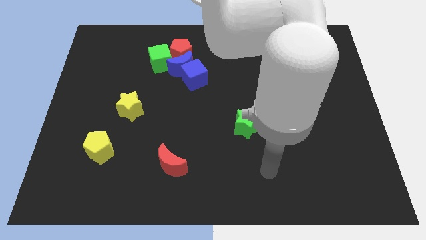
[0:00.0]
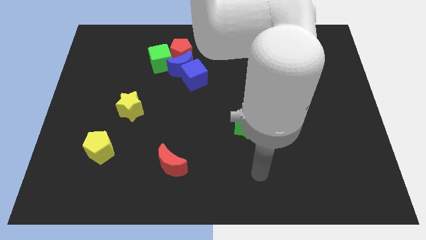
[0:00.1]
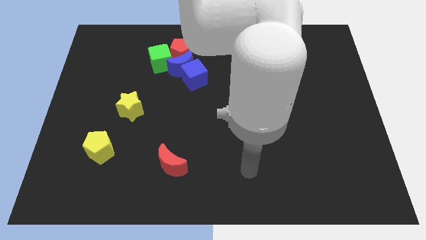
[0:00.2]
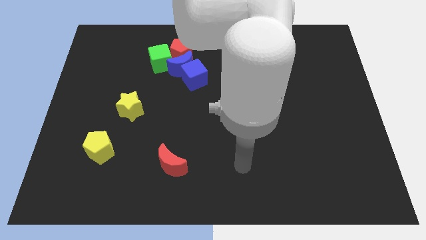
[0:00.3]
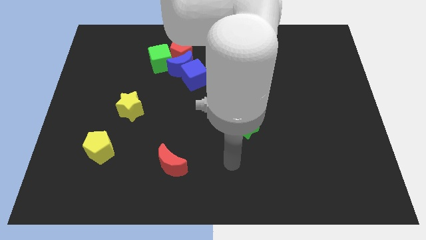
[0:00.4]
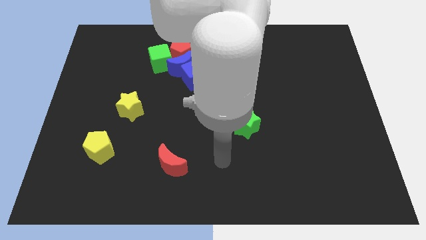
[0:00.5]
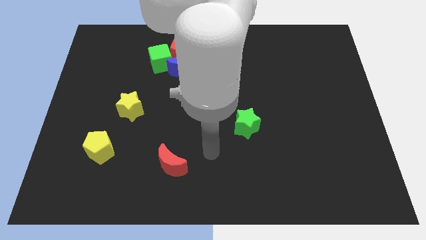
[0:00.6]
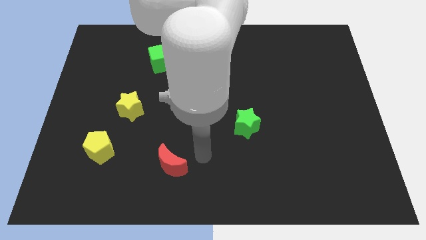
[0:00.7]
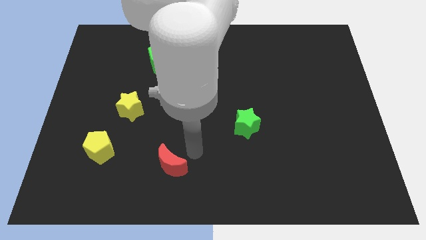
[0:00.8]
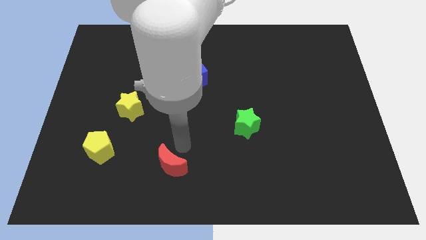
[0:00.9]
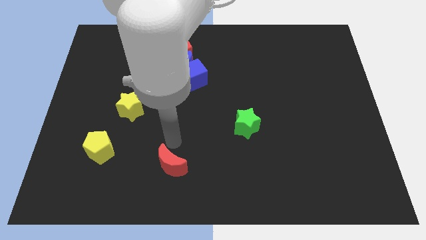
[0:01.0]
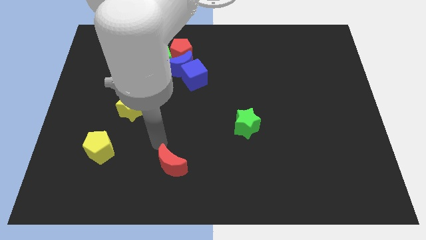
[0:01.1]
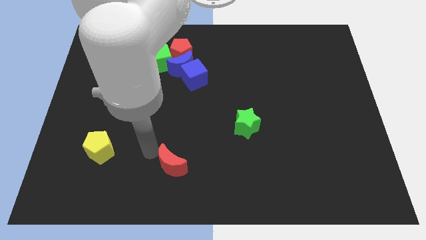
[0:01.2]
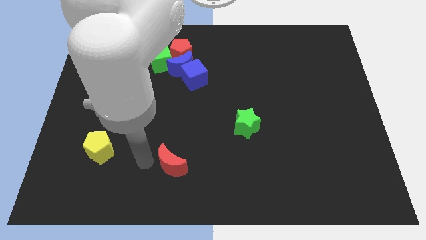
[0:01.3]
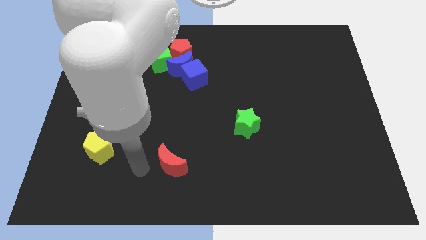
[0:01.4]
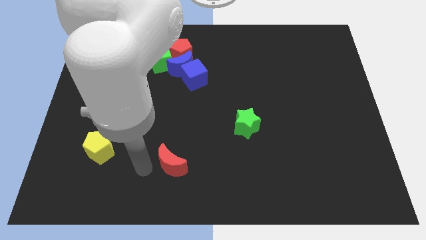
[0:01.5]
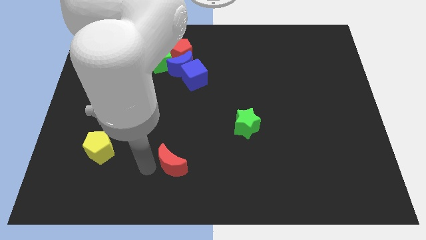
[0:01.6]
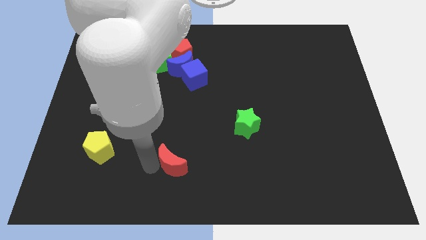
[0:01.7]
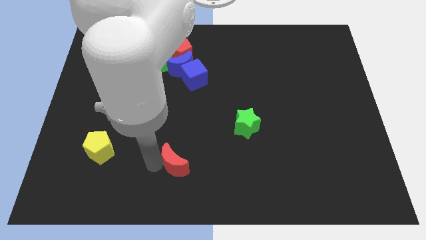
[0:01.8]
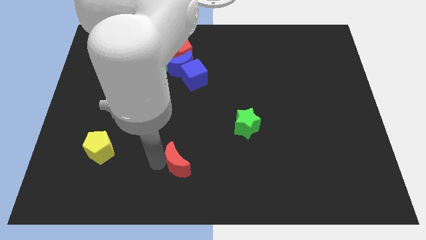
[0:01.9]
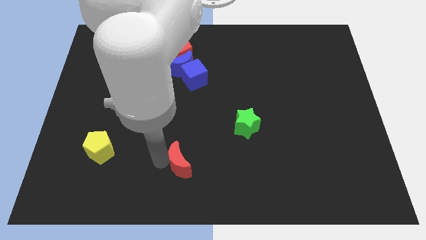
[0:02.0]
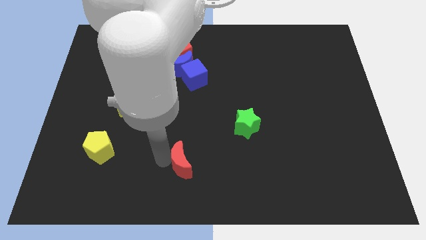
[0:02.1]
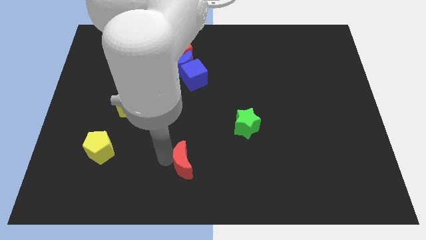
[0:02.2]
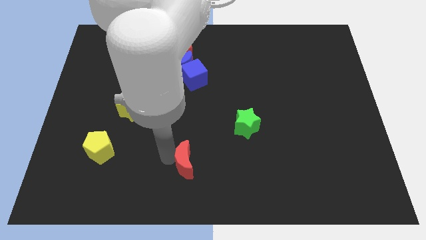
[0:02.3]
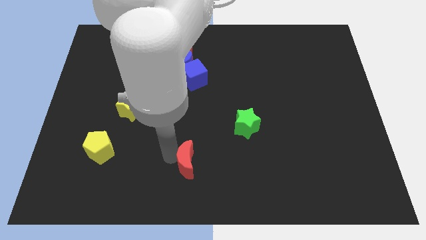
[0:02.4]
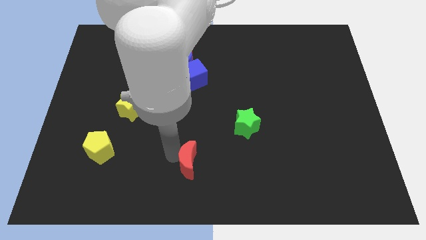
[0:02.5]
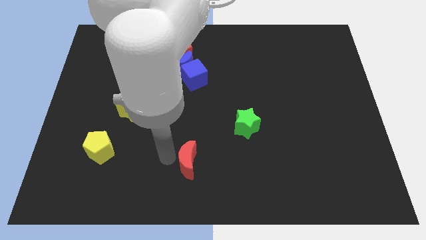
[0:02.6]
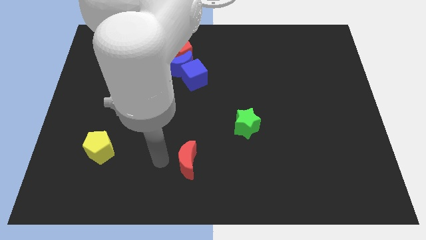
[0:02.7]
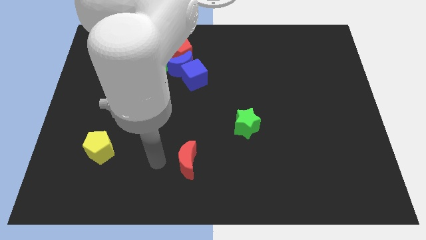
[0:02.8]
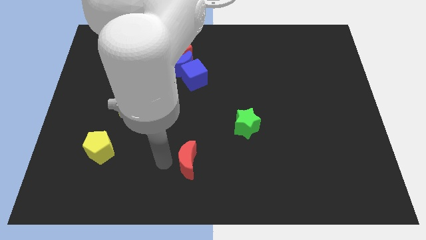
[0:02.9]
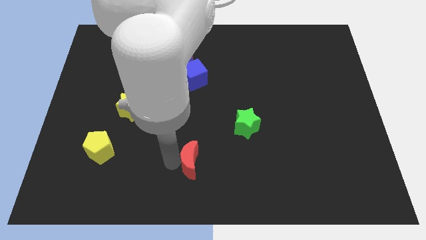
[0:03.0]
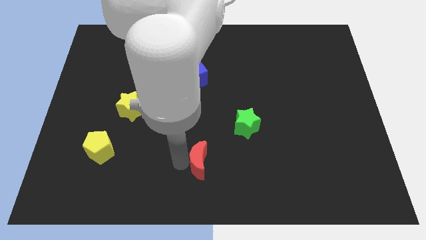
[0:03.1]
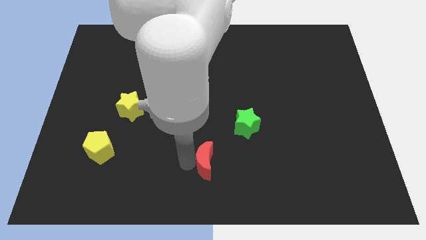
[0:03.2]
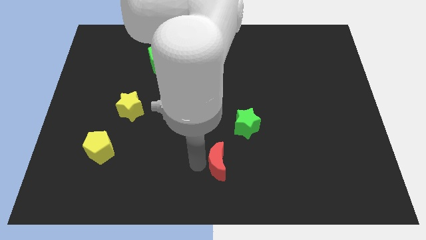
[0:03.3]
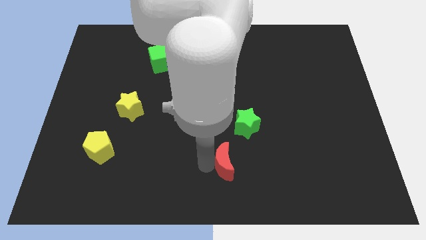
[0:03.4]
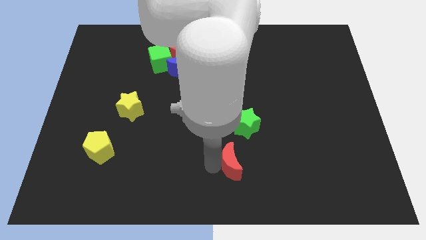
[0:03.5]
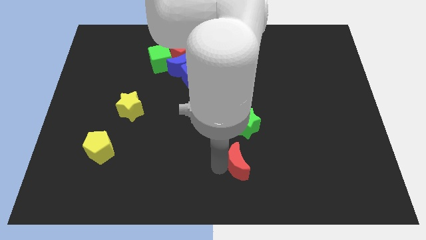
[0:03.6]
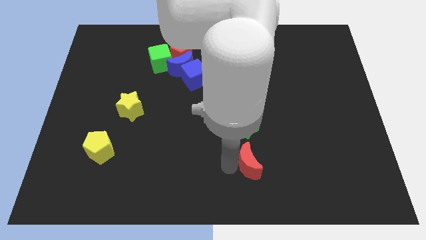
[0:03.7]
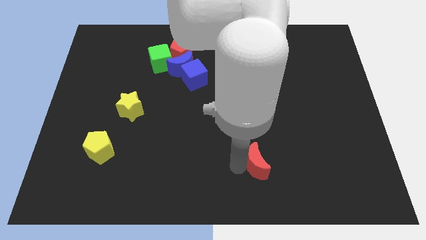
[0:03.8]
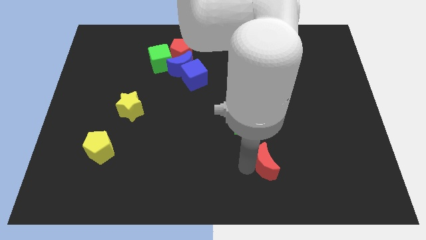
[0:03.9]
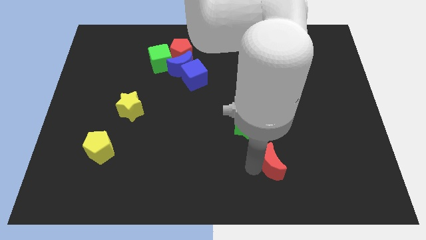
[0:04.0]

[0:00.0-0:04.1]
push the red moon to the right

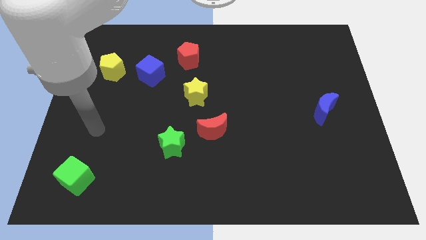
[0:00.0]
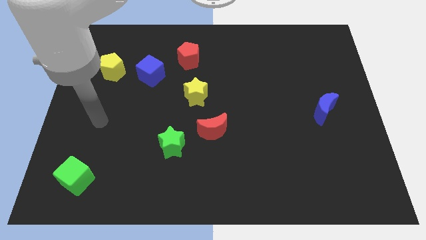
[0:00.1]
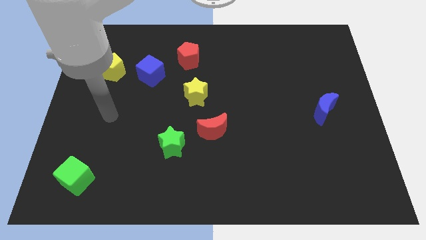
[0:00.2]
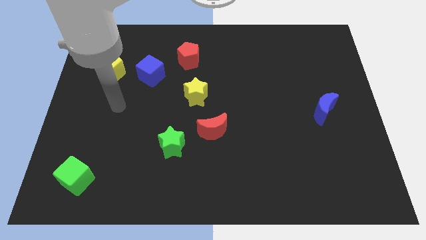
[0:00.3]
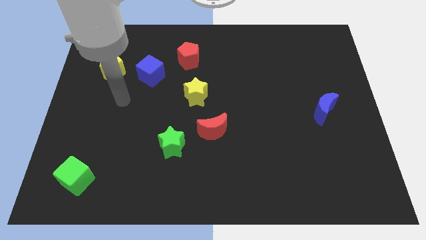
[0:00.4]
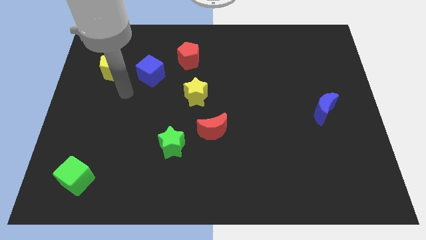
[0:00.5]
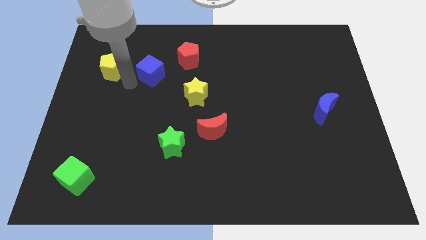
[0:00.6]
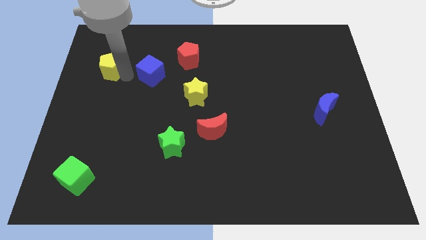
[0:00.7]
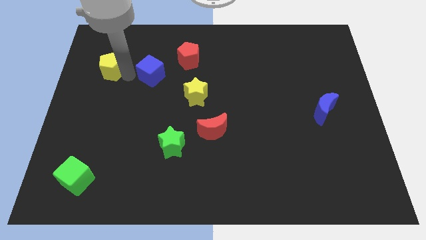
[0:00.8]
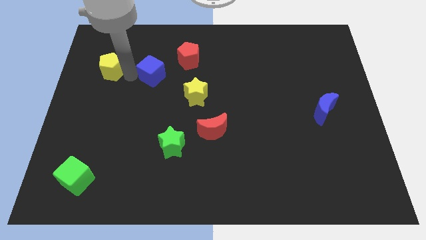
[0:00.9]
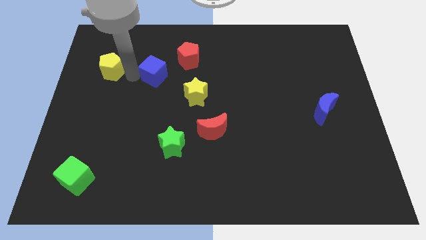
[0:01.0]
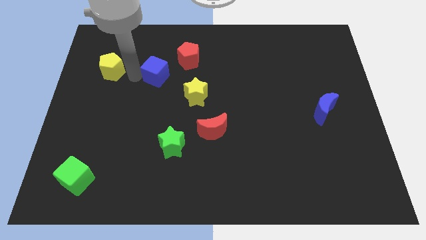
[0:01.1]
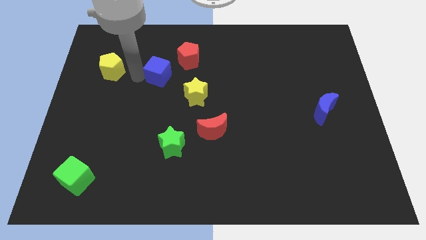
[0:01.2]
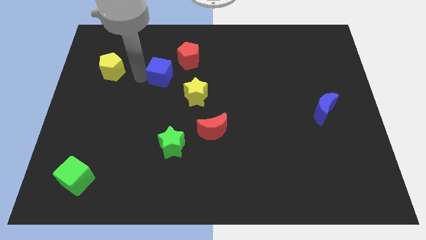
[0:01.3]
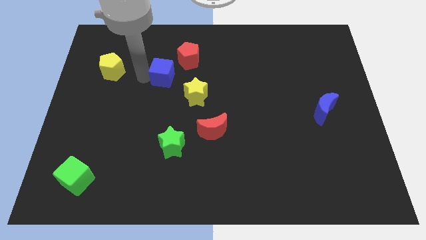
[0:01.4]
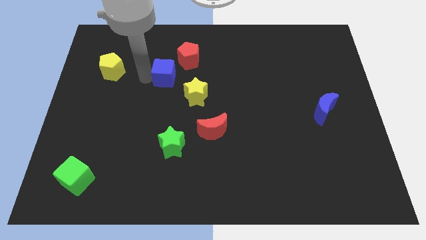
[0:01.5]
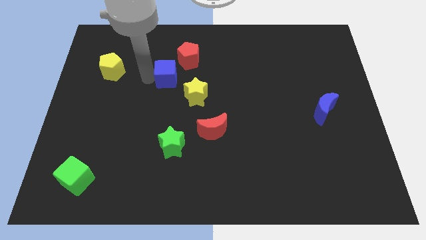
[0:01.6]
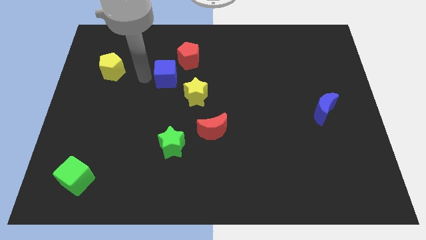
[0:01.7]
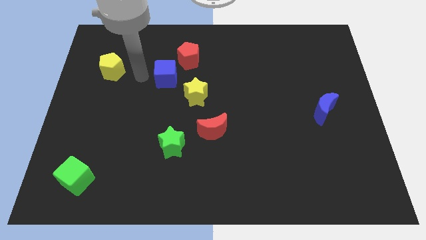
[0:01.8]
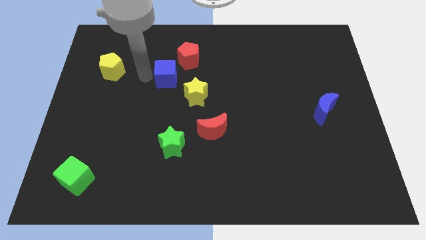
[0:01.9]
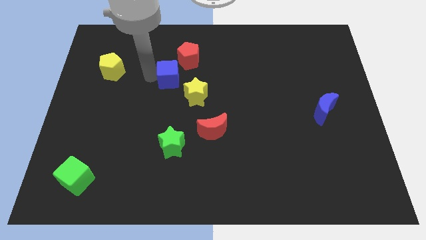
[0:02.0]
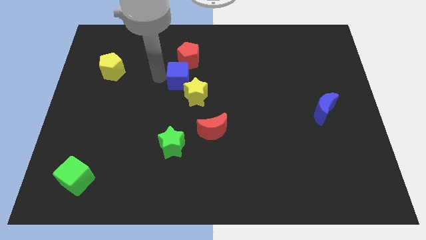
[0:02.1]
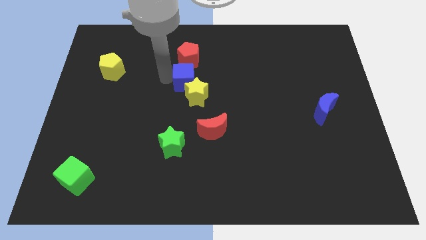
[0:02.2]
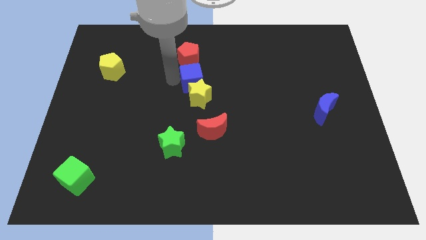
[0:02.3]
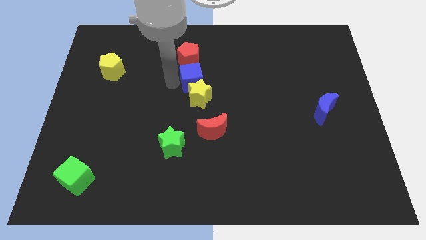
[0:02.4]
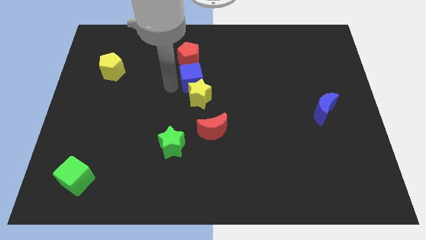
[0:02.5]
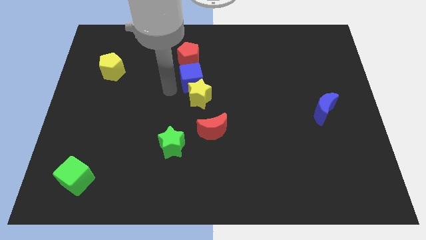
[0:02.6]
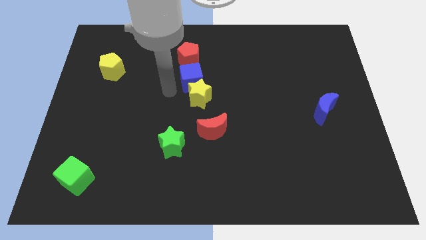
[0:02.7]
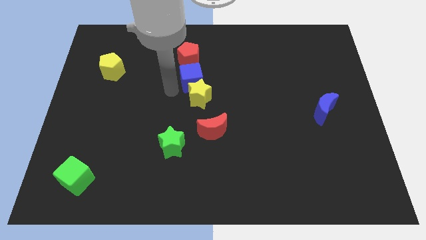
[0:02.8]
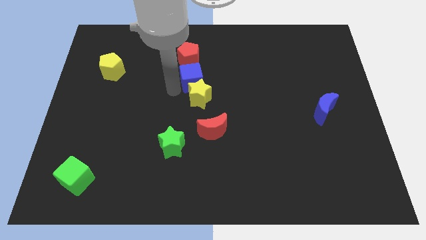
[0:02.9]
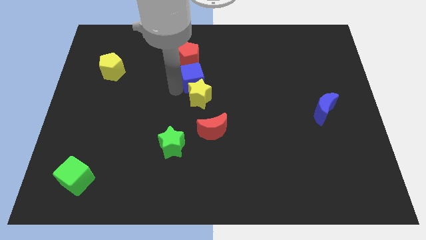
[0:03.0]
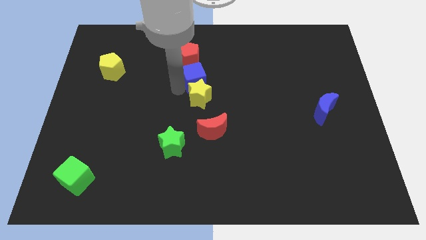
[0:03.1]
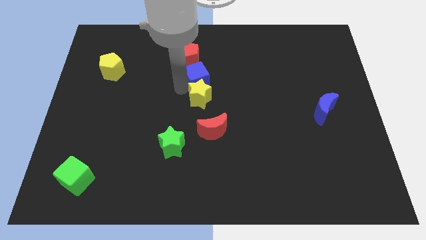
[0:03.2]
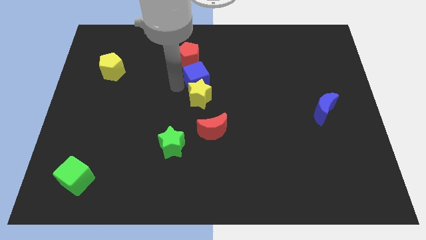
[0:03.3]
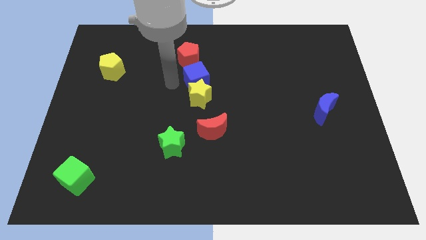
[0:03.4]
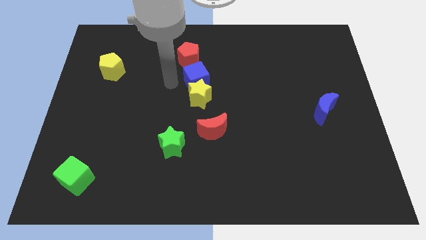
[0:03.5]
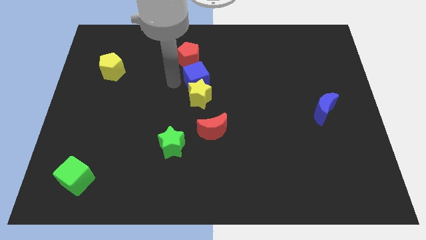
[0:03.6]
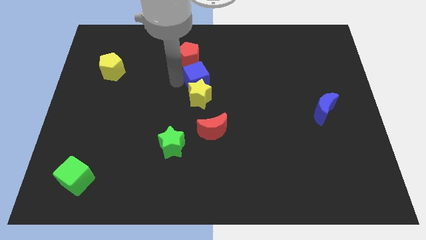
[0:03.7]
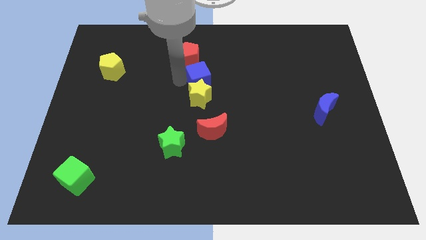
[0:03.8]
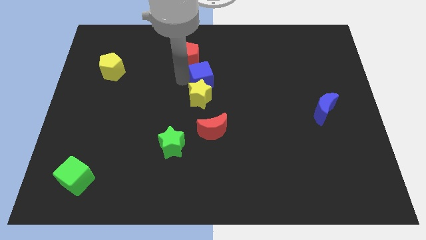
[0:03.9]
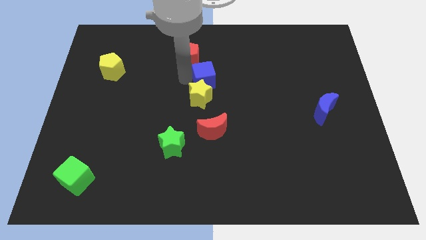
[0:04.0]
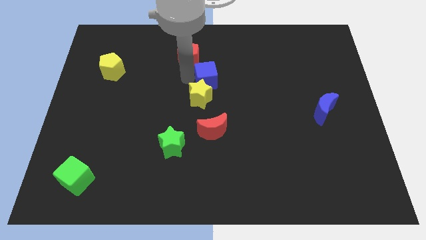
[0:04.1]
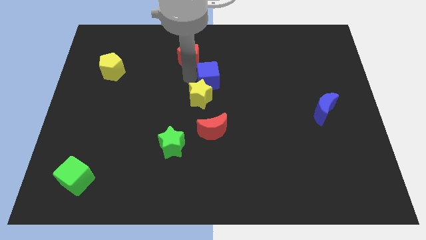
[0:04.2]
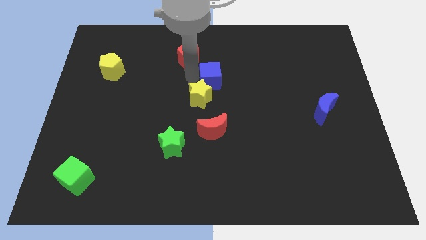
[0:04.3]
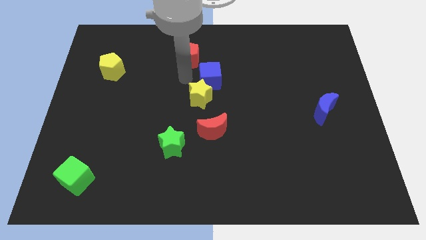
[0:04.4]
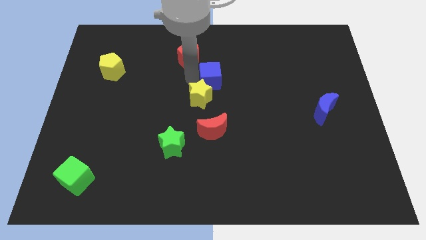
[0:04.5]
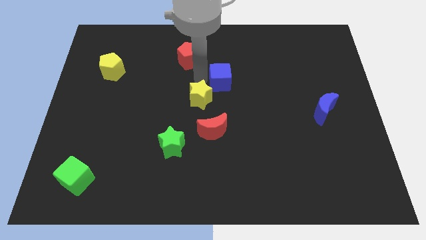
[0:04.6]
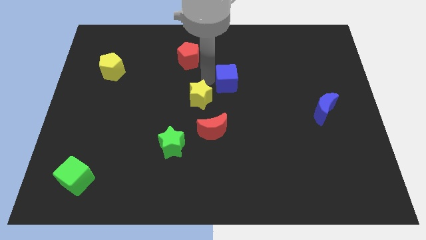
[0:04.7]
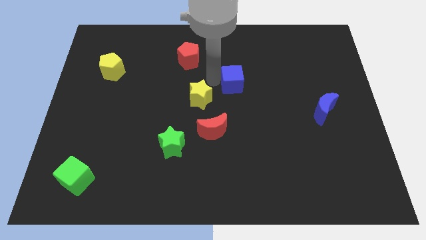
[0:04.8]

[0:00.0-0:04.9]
move the blue cube to the right
